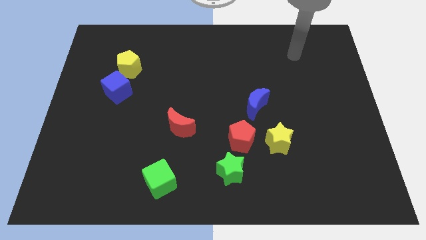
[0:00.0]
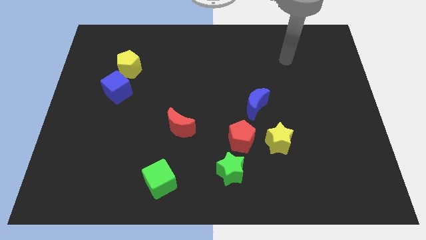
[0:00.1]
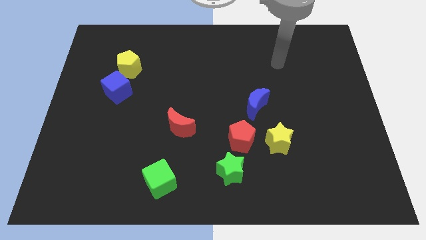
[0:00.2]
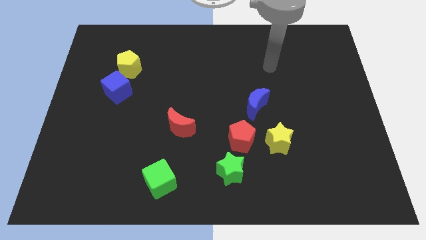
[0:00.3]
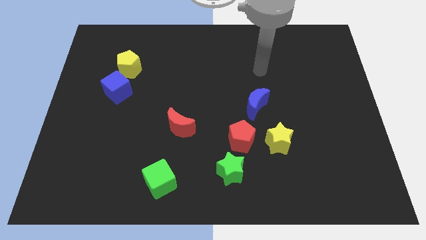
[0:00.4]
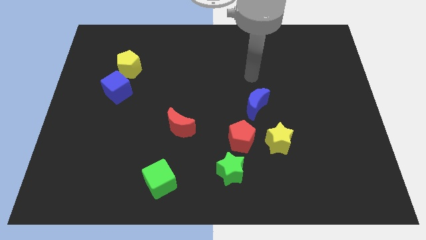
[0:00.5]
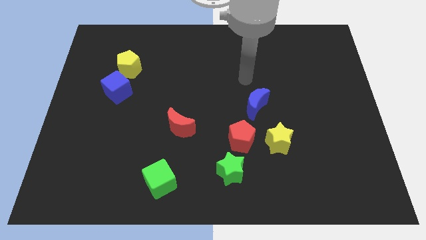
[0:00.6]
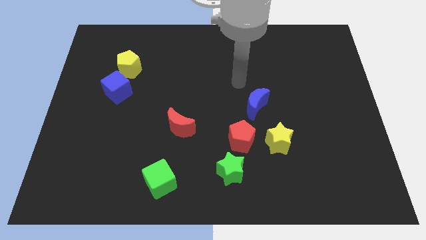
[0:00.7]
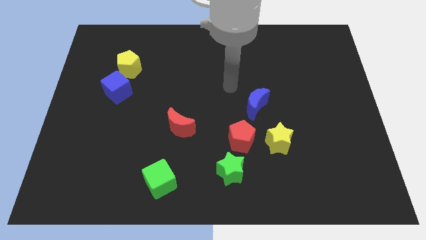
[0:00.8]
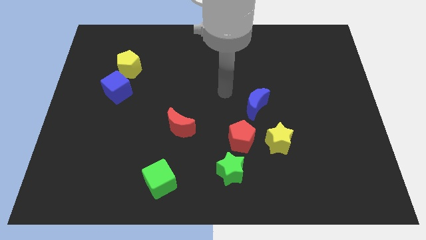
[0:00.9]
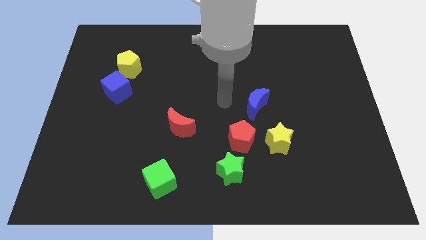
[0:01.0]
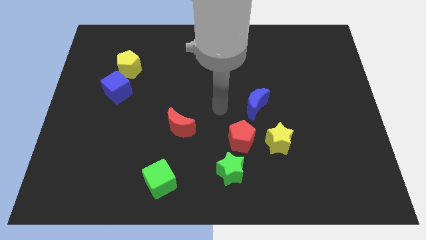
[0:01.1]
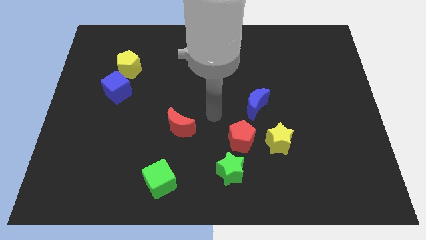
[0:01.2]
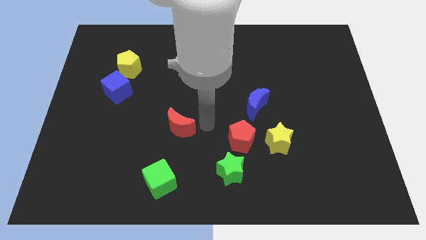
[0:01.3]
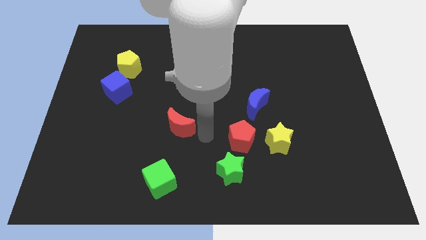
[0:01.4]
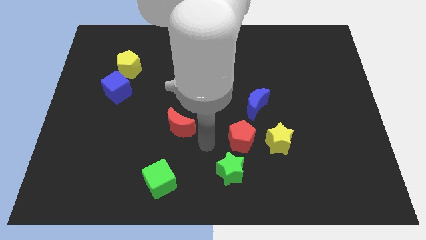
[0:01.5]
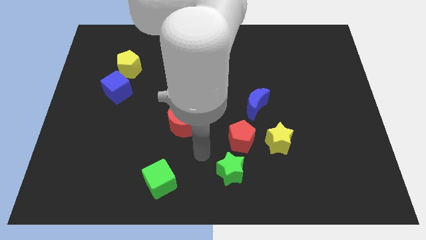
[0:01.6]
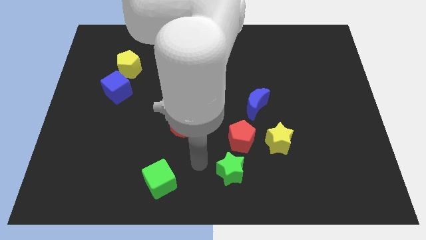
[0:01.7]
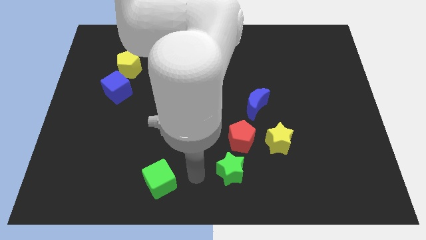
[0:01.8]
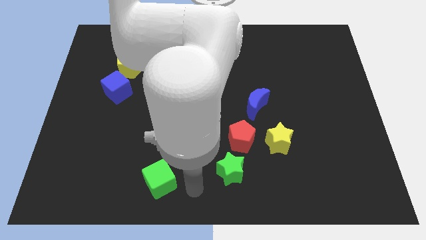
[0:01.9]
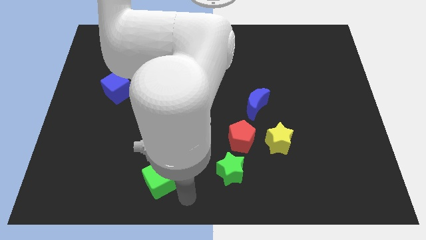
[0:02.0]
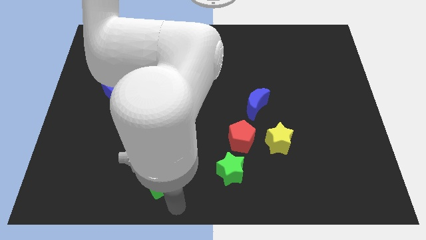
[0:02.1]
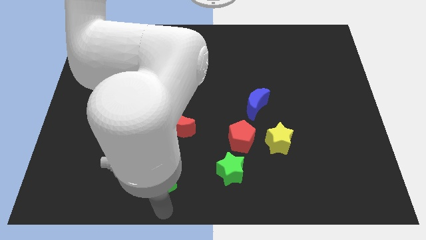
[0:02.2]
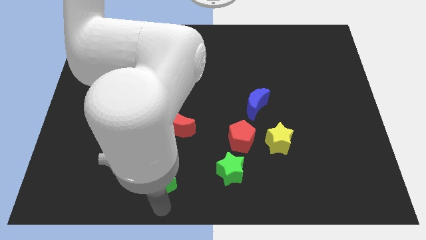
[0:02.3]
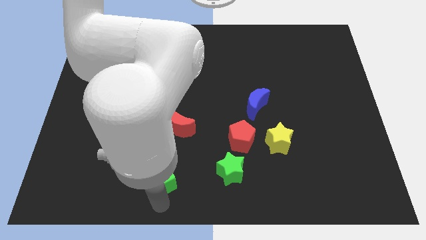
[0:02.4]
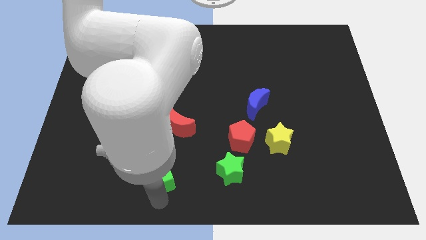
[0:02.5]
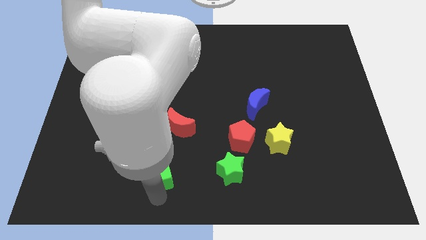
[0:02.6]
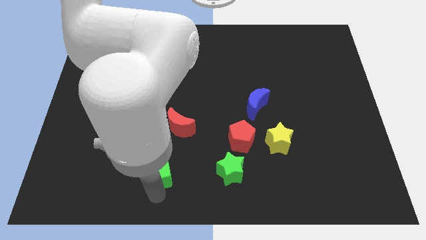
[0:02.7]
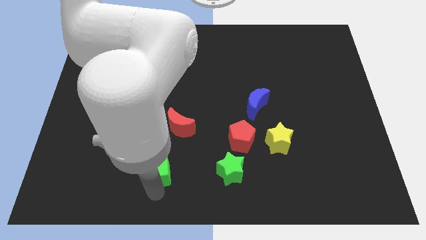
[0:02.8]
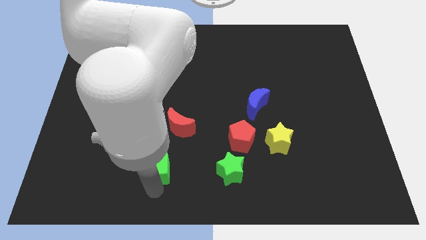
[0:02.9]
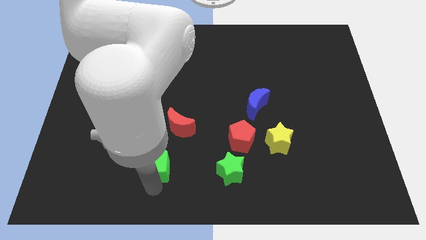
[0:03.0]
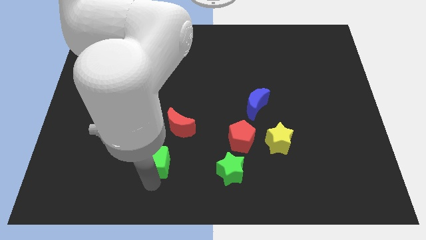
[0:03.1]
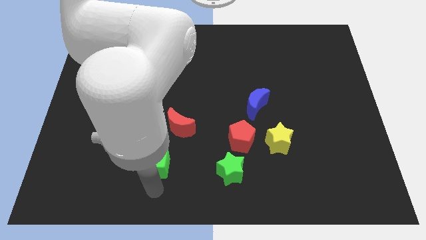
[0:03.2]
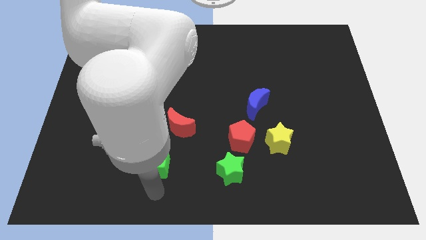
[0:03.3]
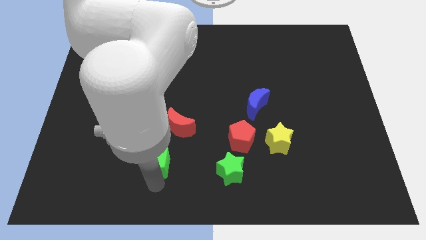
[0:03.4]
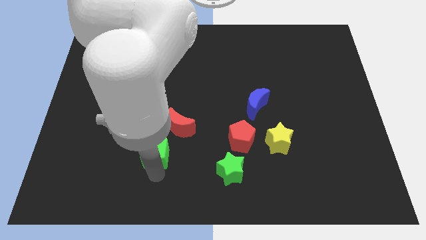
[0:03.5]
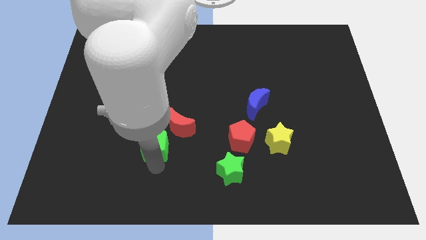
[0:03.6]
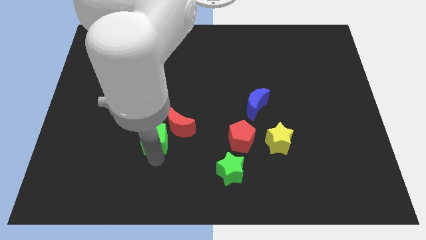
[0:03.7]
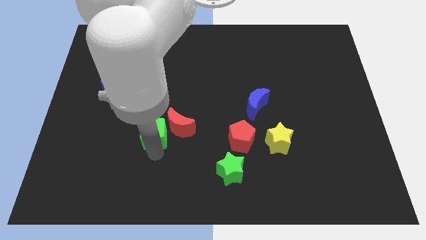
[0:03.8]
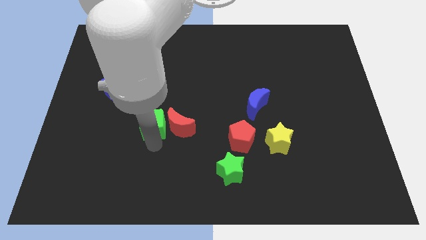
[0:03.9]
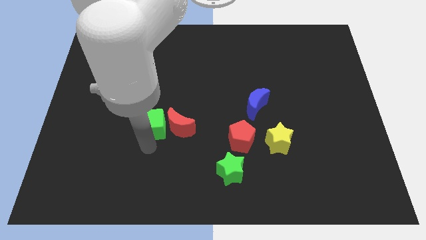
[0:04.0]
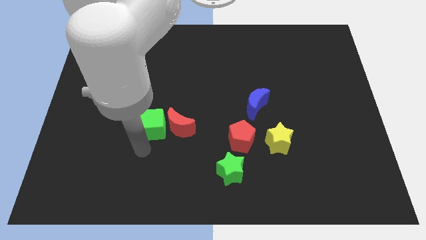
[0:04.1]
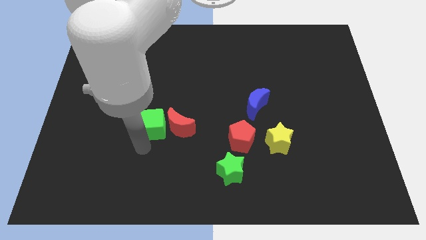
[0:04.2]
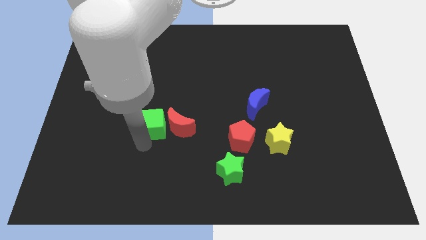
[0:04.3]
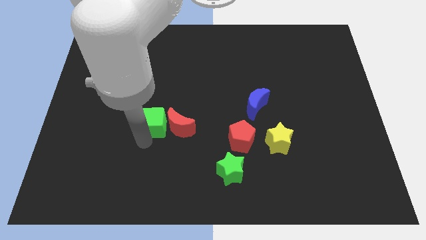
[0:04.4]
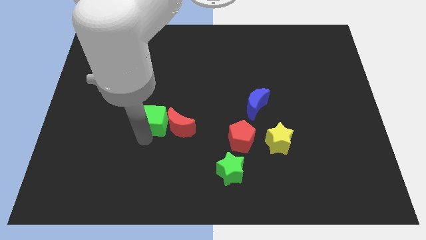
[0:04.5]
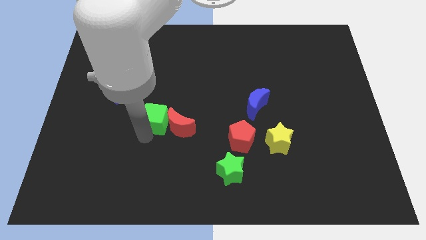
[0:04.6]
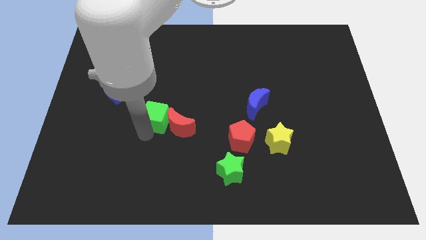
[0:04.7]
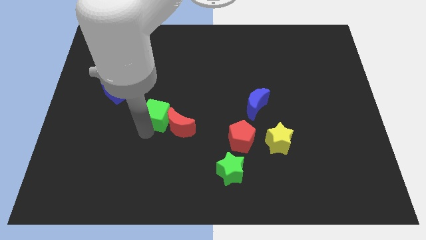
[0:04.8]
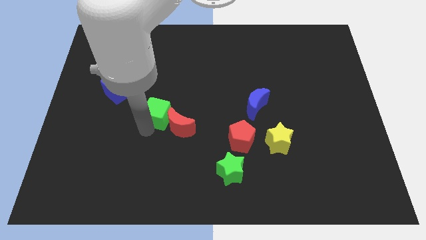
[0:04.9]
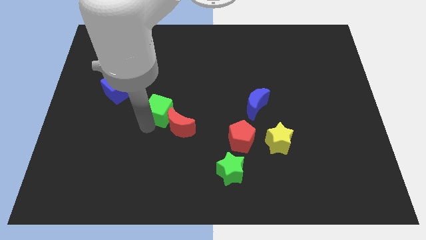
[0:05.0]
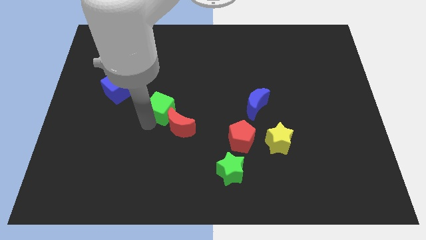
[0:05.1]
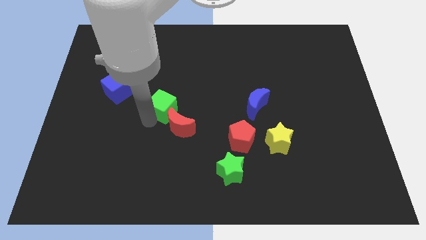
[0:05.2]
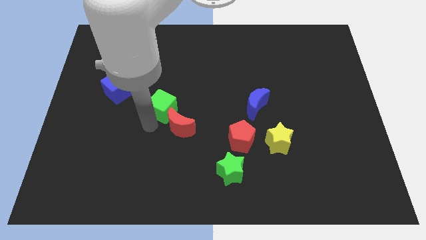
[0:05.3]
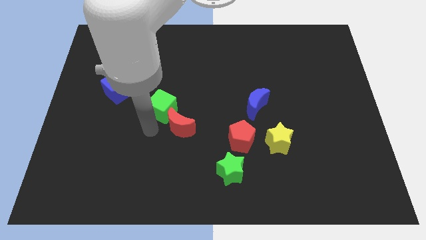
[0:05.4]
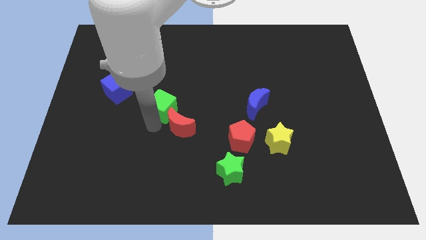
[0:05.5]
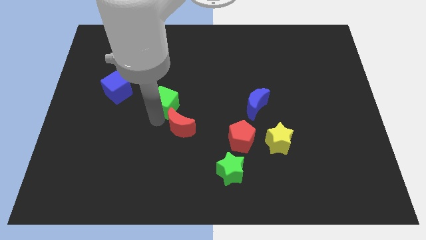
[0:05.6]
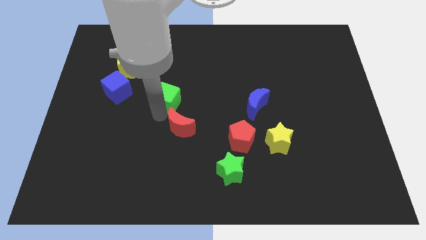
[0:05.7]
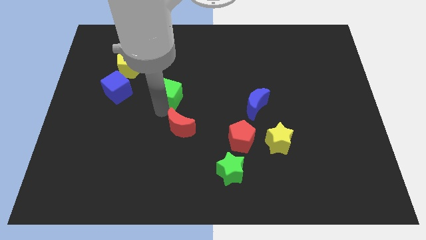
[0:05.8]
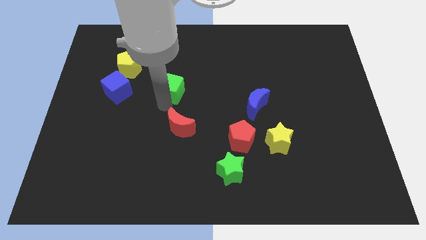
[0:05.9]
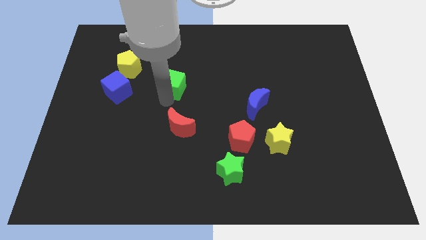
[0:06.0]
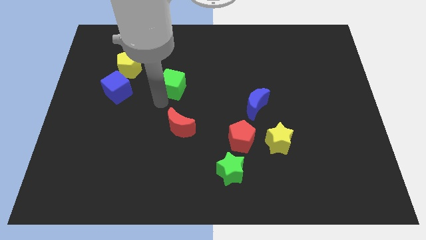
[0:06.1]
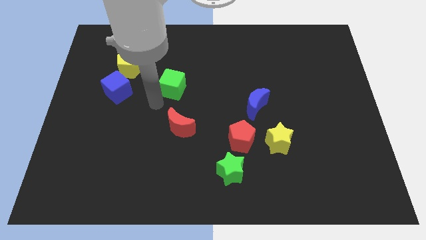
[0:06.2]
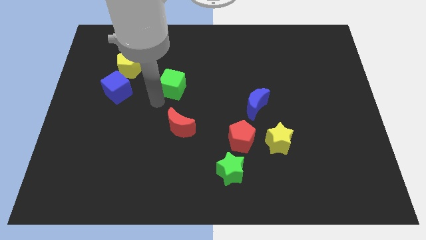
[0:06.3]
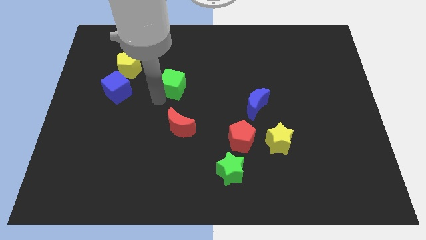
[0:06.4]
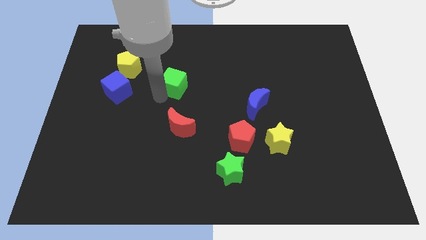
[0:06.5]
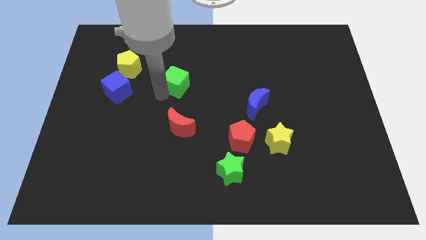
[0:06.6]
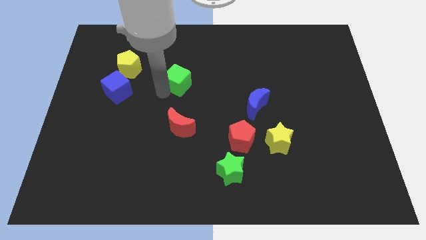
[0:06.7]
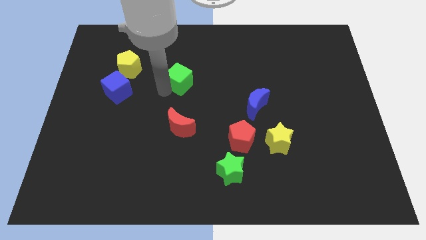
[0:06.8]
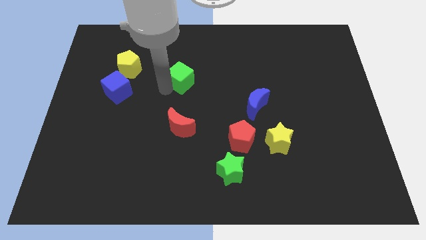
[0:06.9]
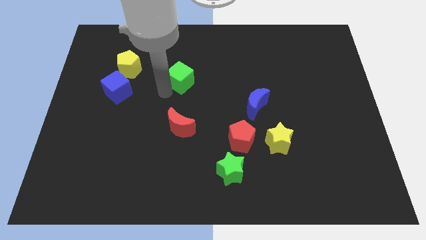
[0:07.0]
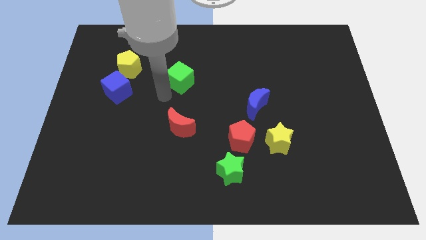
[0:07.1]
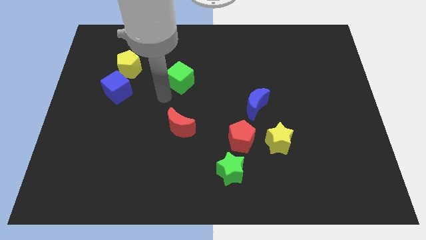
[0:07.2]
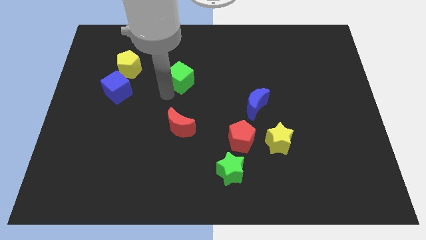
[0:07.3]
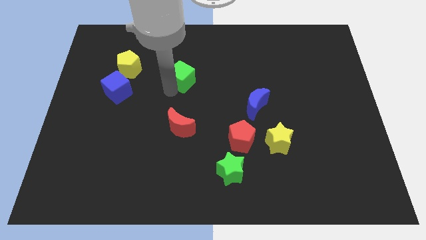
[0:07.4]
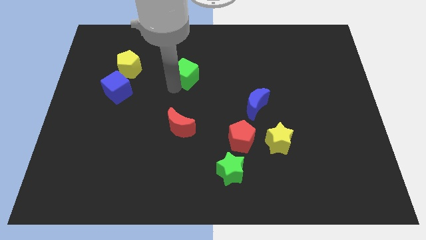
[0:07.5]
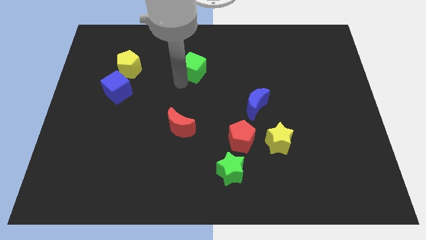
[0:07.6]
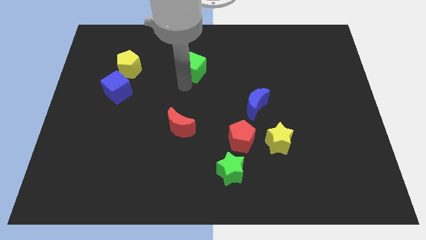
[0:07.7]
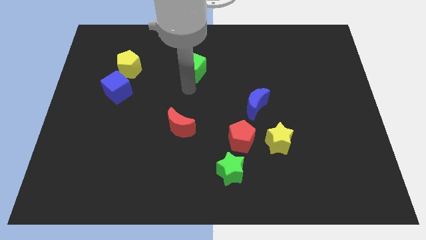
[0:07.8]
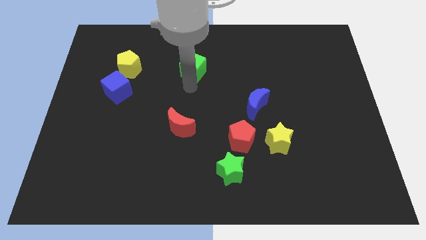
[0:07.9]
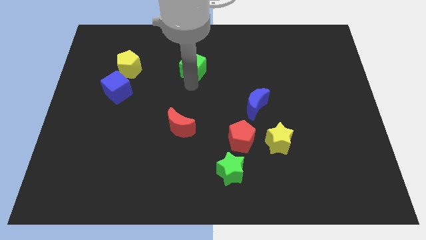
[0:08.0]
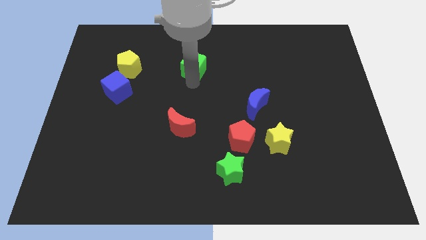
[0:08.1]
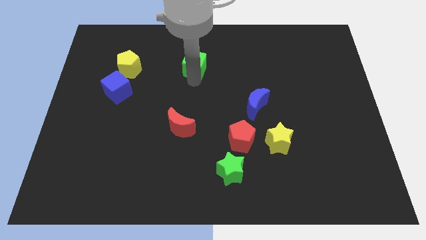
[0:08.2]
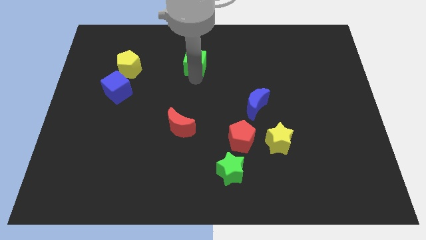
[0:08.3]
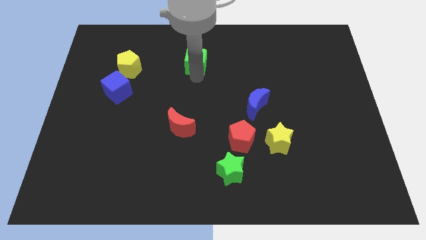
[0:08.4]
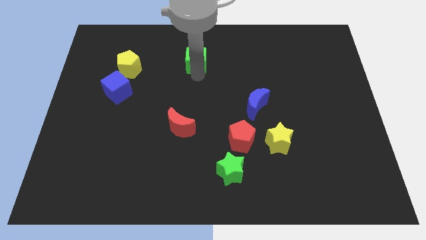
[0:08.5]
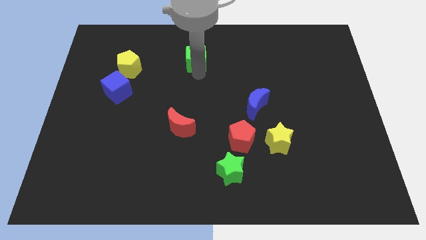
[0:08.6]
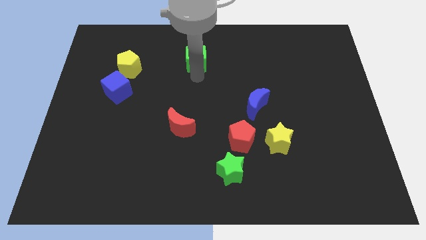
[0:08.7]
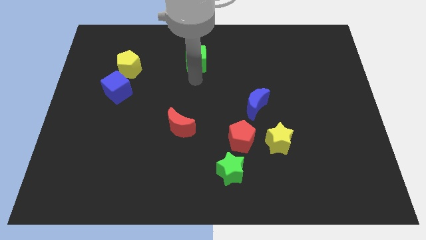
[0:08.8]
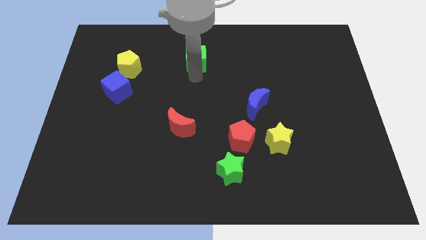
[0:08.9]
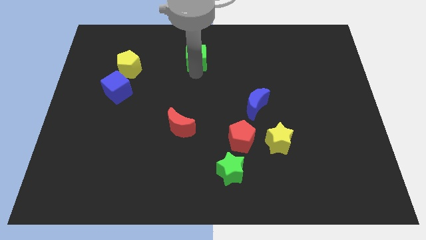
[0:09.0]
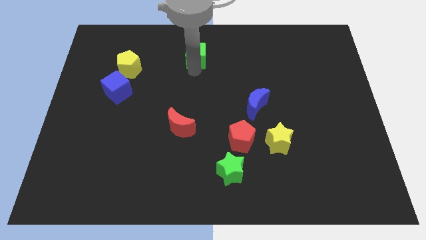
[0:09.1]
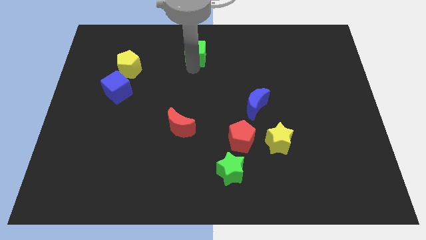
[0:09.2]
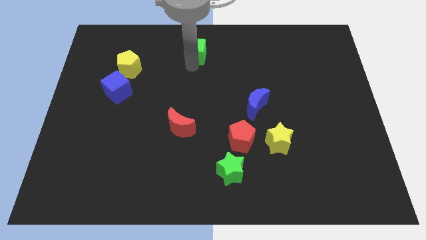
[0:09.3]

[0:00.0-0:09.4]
push the green cube to the top
